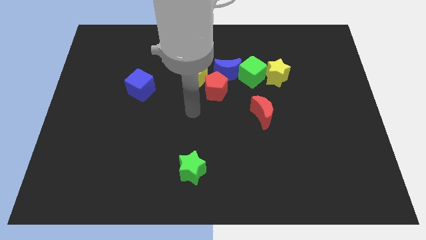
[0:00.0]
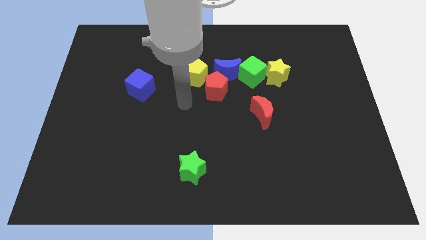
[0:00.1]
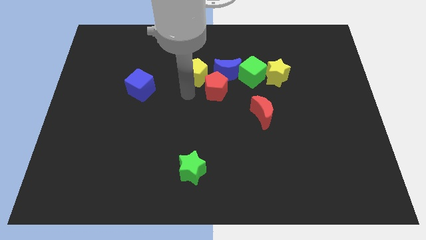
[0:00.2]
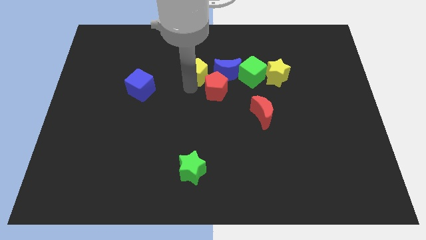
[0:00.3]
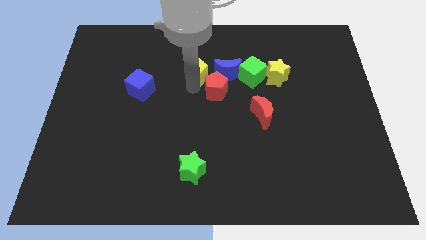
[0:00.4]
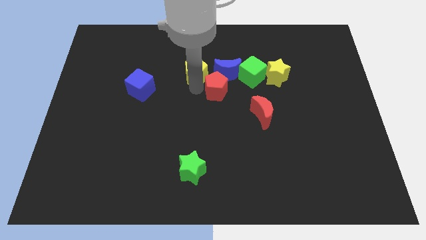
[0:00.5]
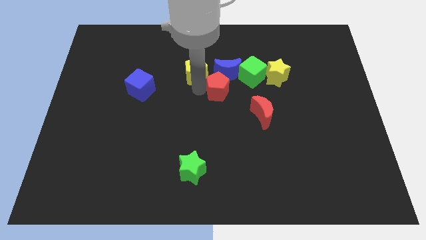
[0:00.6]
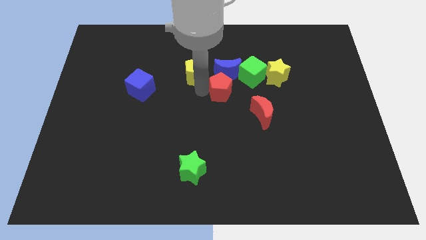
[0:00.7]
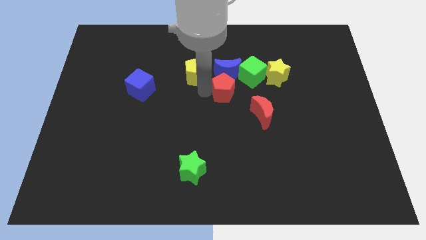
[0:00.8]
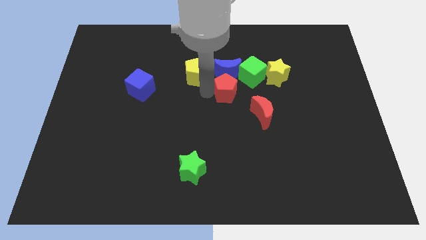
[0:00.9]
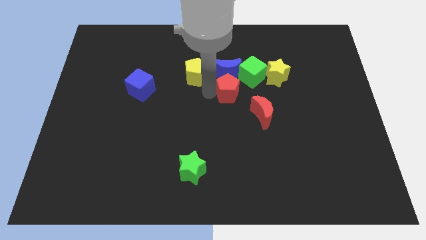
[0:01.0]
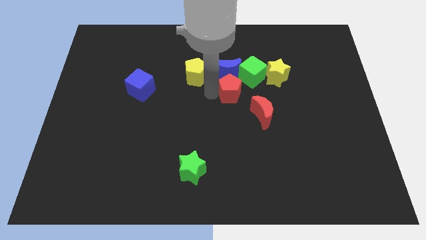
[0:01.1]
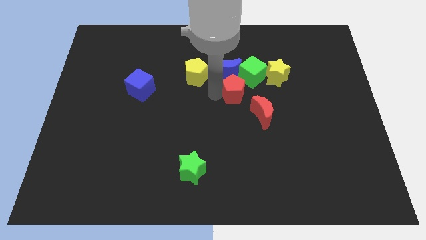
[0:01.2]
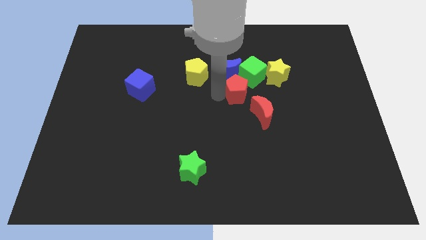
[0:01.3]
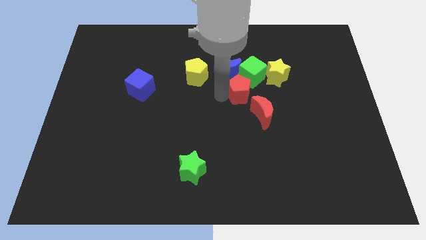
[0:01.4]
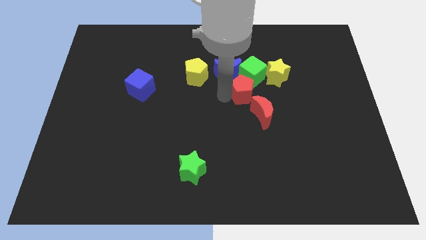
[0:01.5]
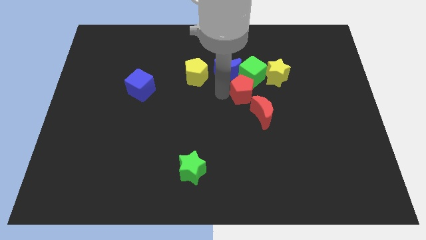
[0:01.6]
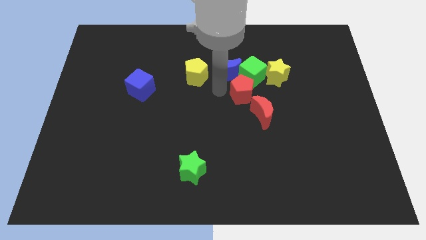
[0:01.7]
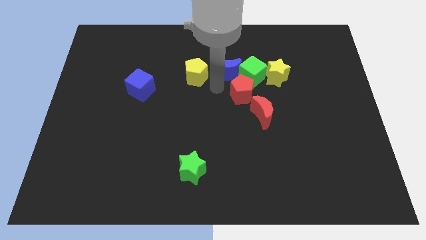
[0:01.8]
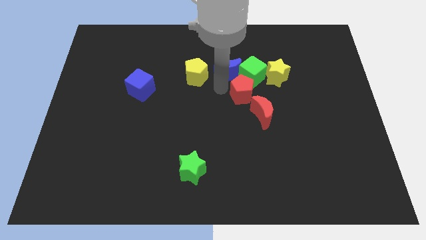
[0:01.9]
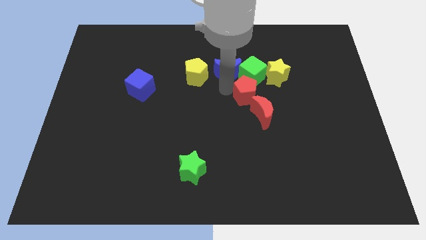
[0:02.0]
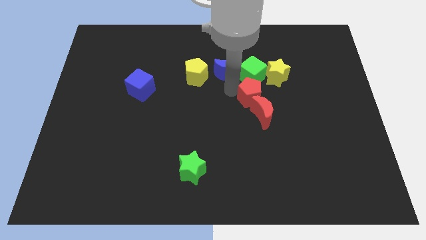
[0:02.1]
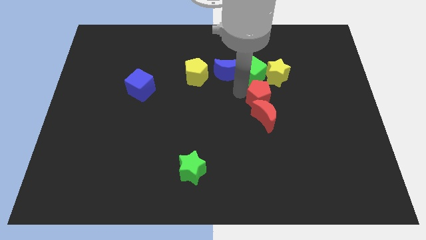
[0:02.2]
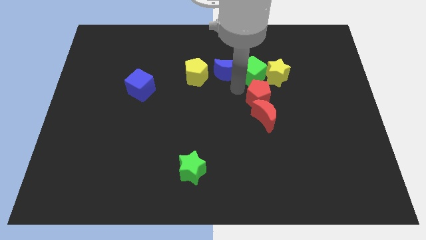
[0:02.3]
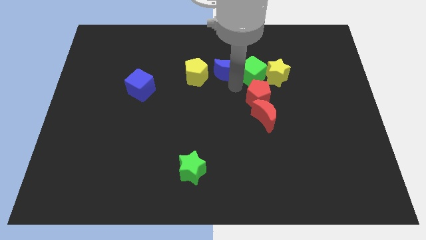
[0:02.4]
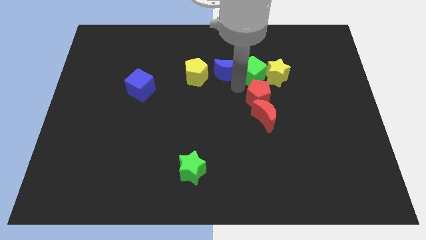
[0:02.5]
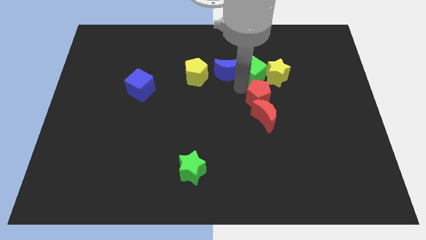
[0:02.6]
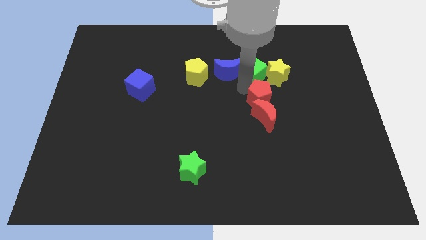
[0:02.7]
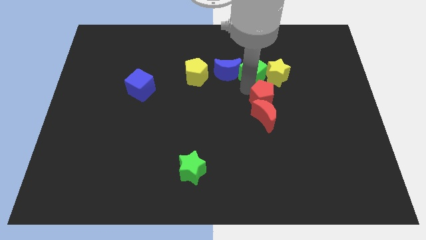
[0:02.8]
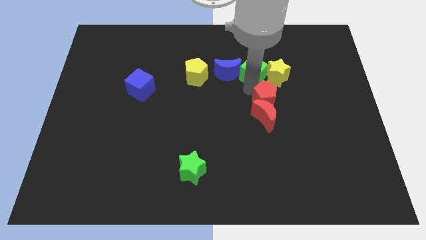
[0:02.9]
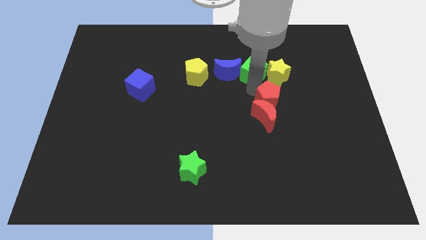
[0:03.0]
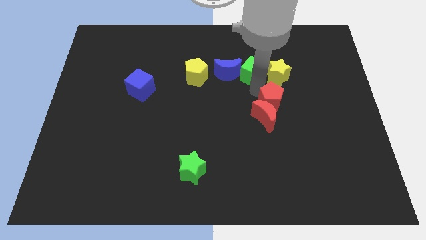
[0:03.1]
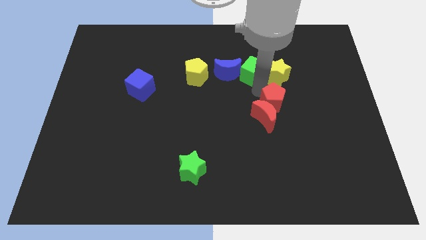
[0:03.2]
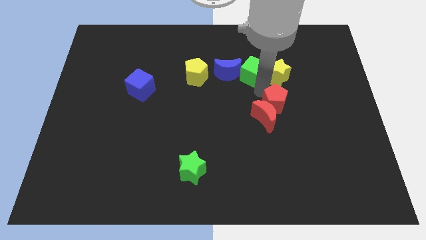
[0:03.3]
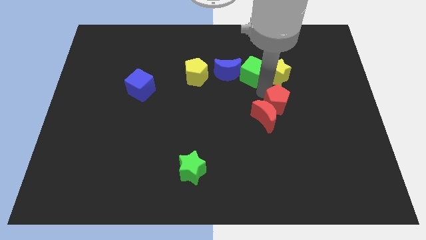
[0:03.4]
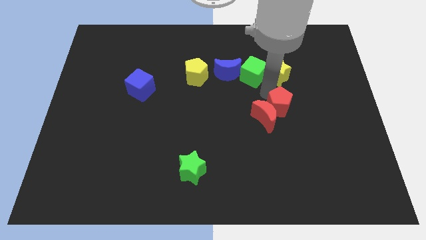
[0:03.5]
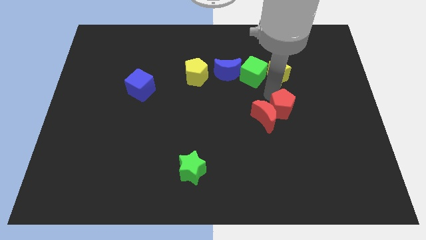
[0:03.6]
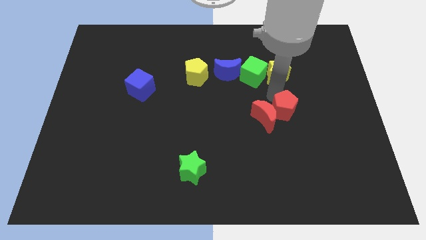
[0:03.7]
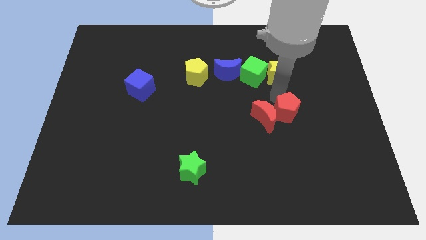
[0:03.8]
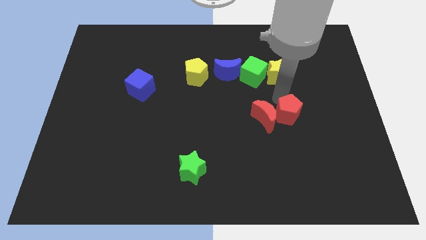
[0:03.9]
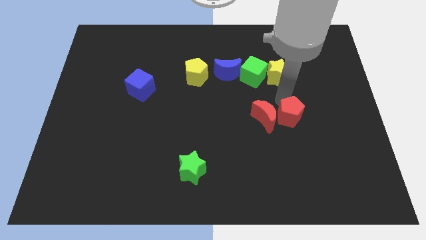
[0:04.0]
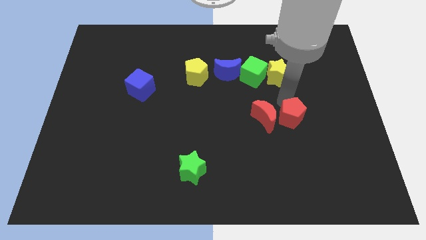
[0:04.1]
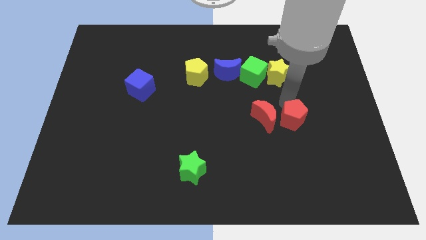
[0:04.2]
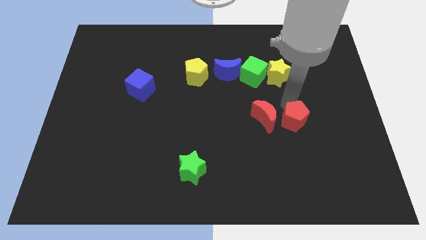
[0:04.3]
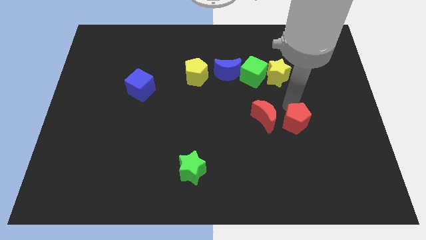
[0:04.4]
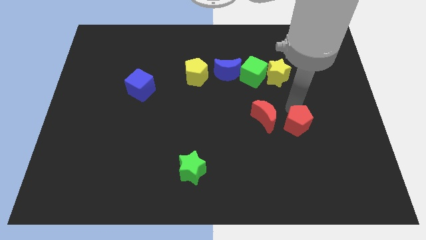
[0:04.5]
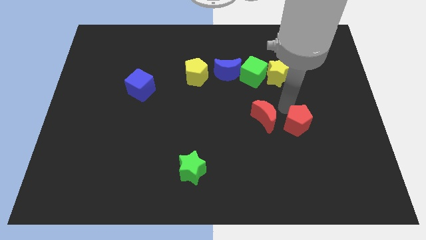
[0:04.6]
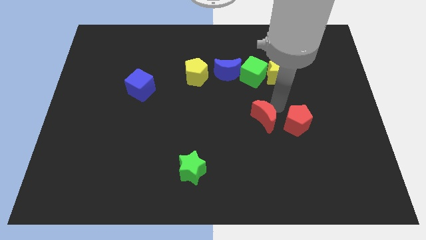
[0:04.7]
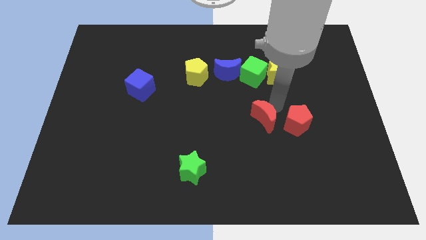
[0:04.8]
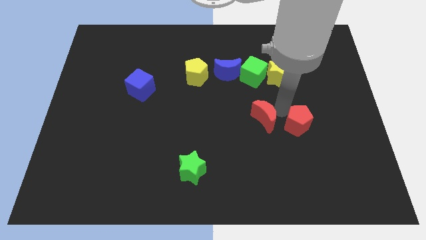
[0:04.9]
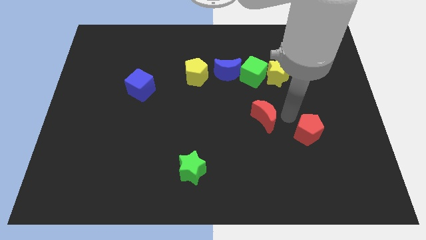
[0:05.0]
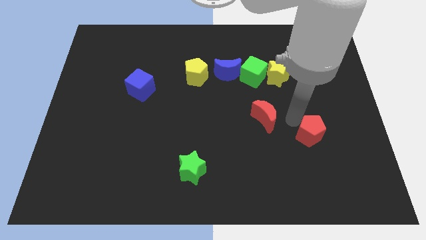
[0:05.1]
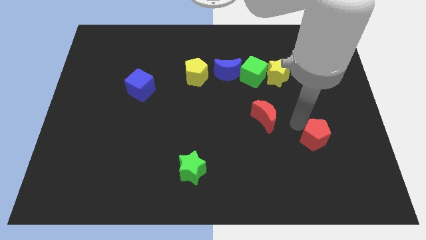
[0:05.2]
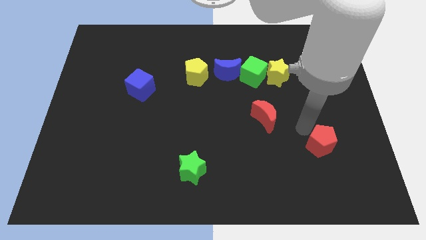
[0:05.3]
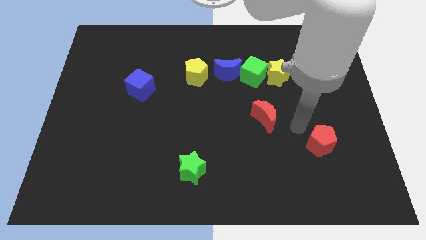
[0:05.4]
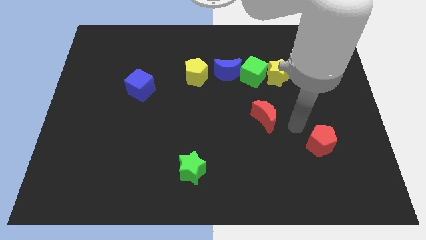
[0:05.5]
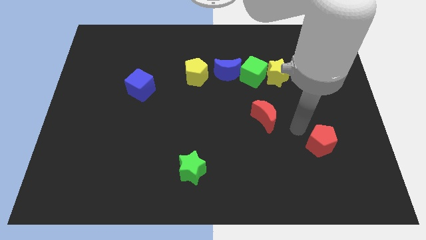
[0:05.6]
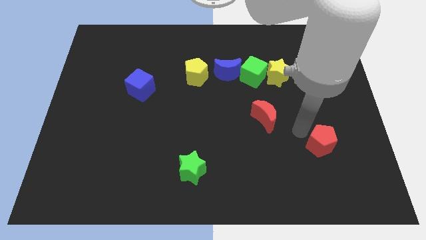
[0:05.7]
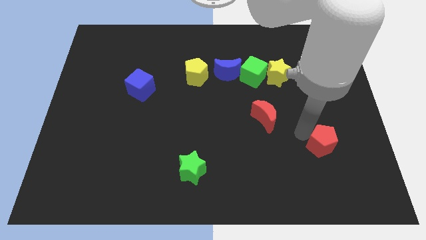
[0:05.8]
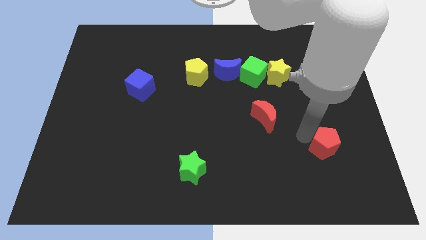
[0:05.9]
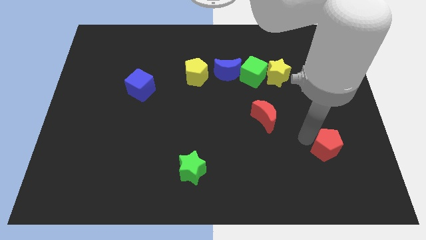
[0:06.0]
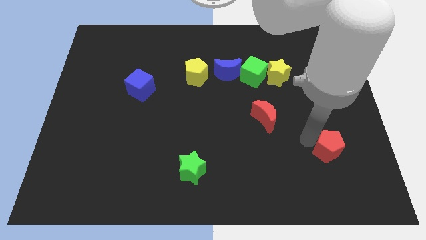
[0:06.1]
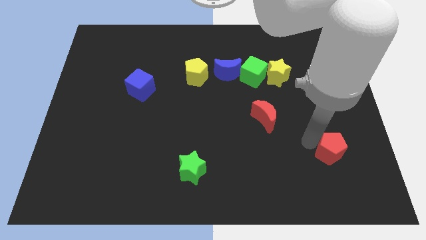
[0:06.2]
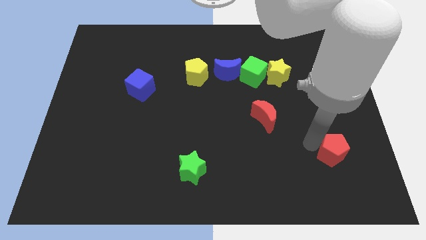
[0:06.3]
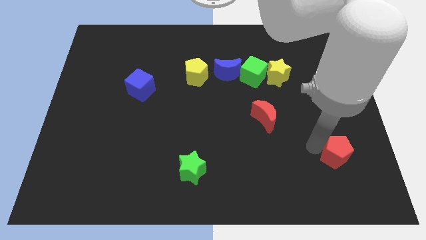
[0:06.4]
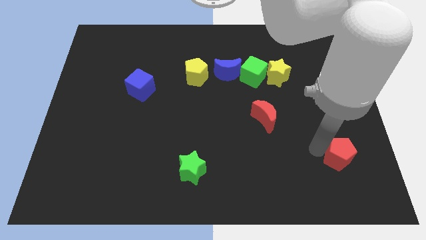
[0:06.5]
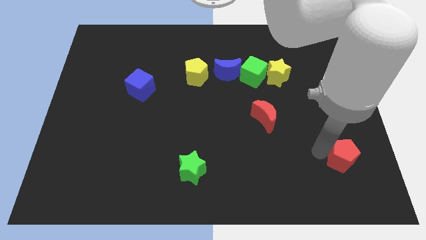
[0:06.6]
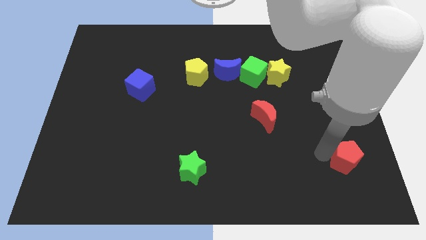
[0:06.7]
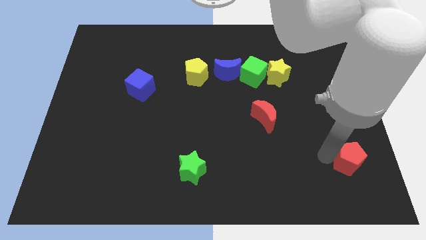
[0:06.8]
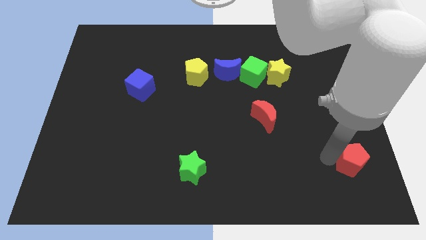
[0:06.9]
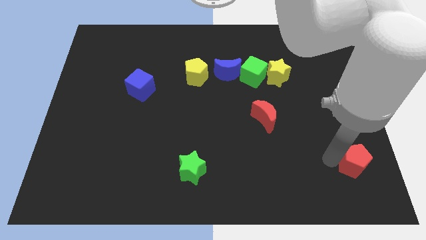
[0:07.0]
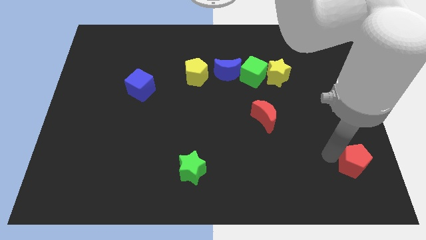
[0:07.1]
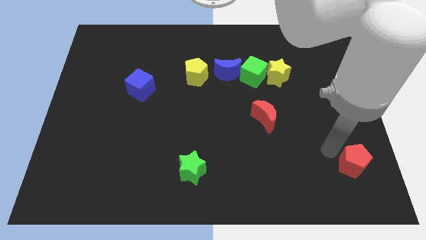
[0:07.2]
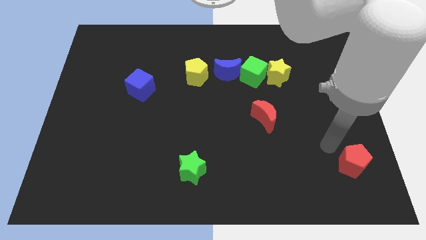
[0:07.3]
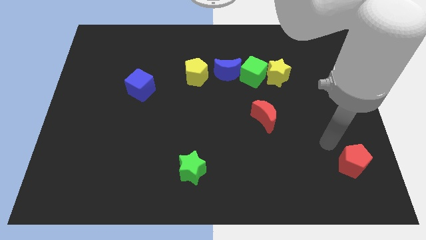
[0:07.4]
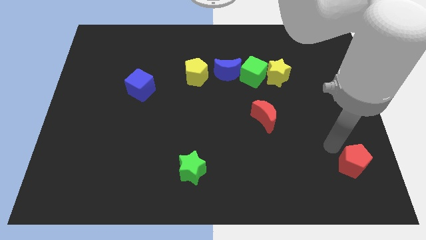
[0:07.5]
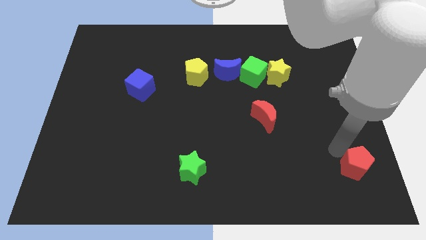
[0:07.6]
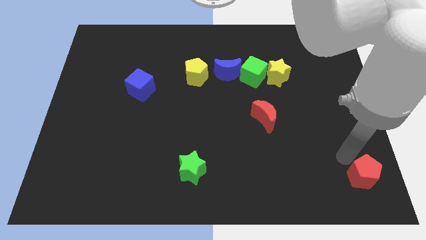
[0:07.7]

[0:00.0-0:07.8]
put the red pentagon to the bottom right corner
